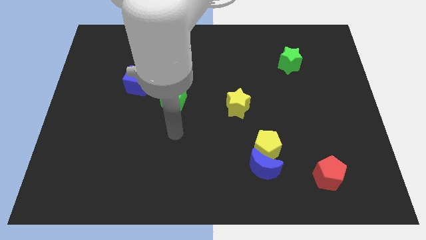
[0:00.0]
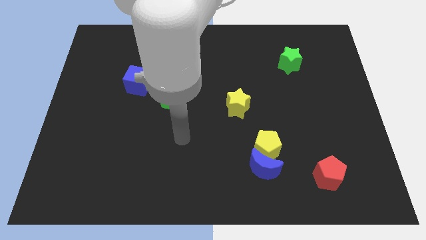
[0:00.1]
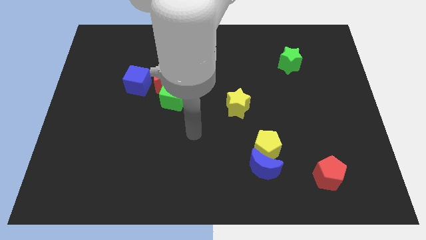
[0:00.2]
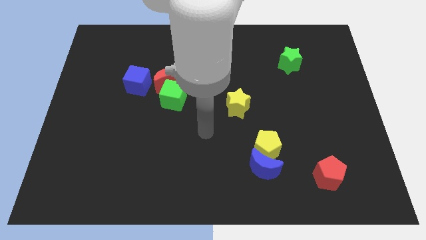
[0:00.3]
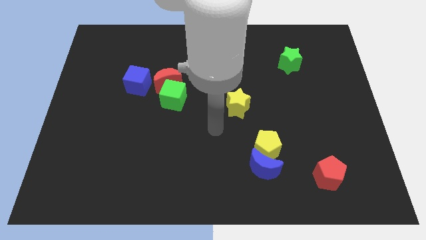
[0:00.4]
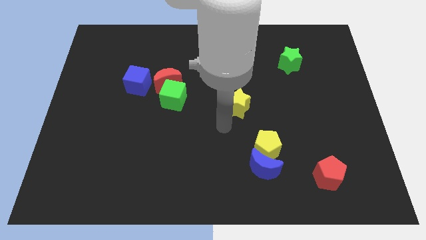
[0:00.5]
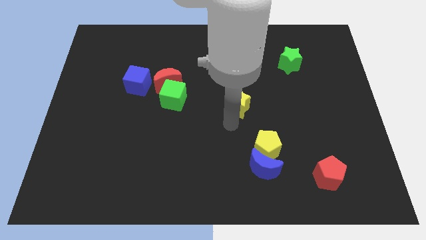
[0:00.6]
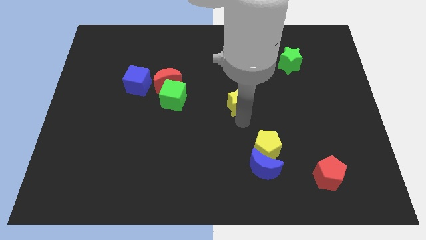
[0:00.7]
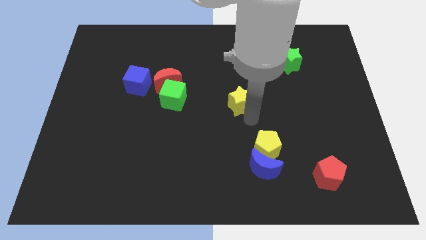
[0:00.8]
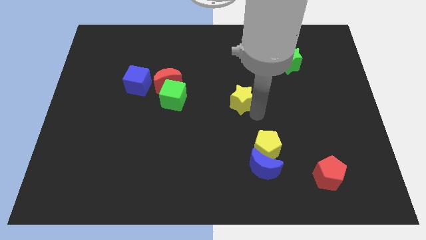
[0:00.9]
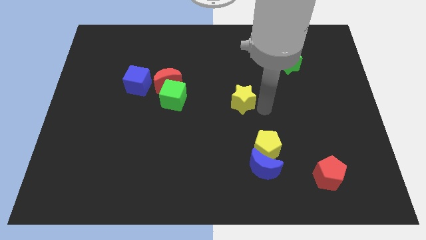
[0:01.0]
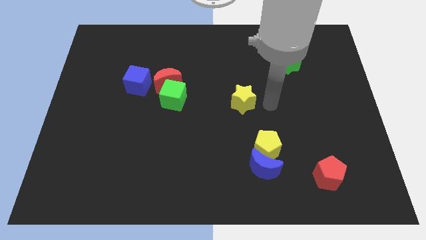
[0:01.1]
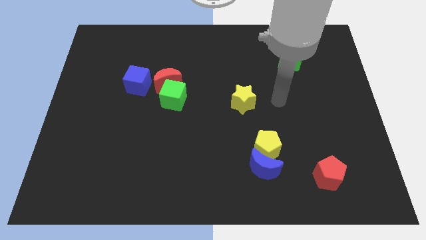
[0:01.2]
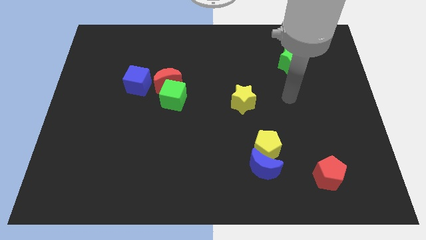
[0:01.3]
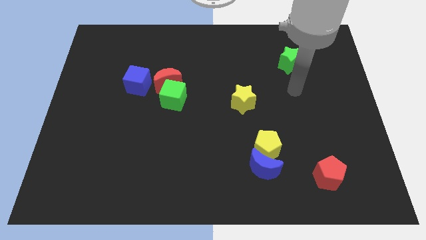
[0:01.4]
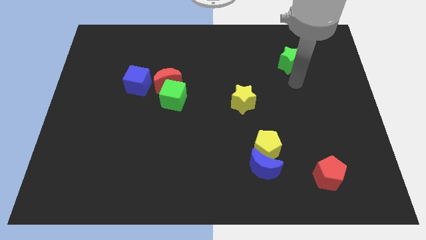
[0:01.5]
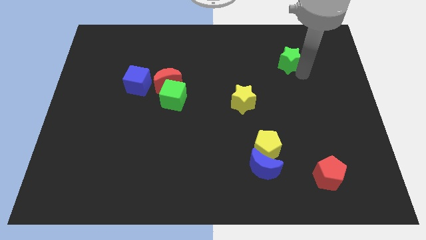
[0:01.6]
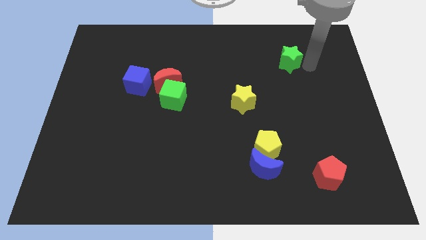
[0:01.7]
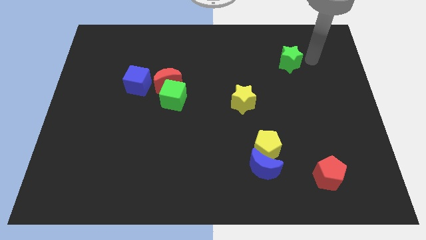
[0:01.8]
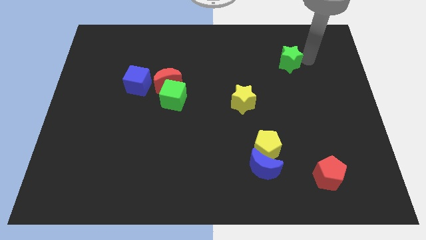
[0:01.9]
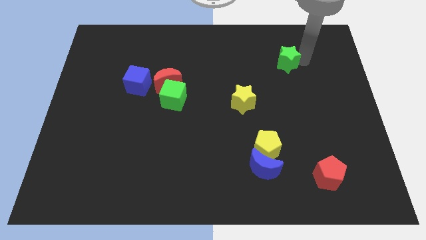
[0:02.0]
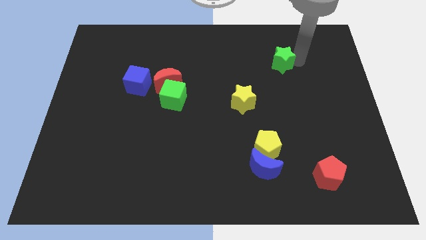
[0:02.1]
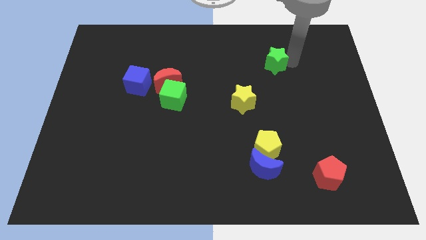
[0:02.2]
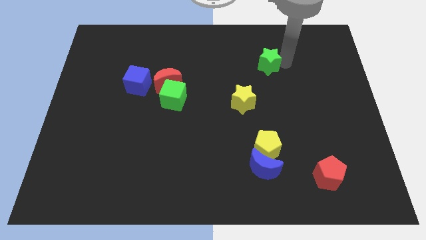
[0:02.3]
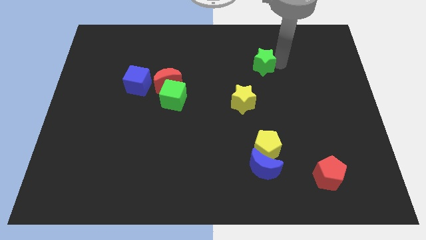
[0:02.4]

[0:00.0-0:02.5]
slide the green star a little to the left

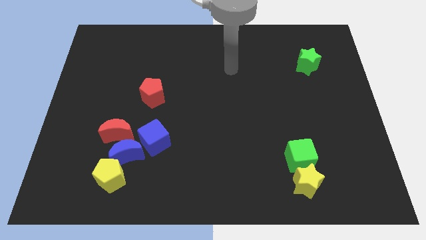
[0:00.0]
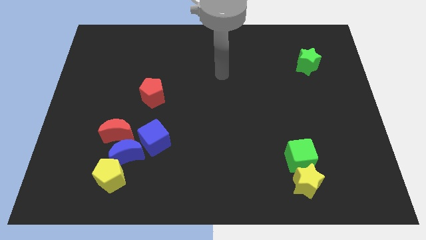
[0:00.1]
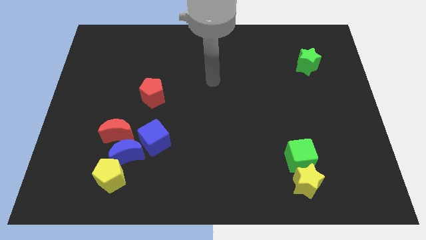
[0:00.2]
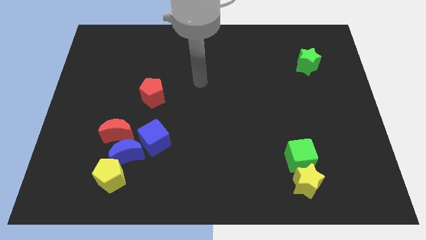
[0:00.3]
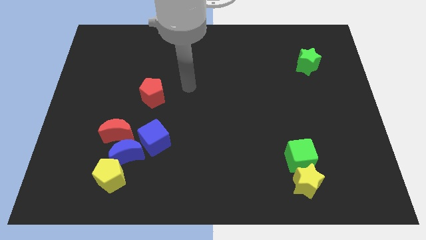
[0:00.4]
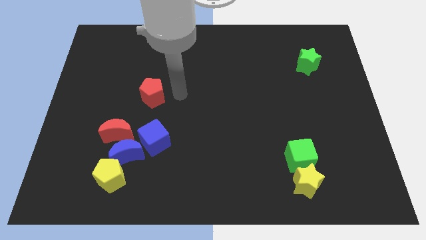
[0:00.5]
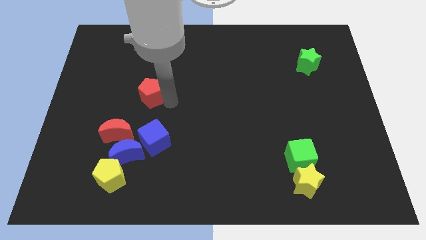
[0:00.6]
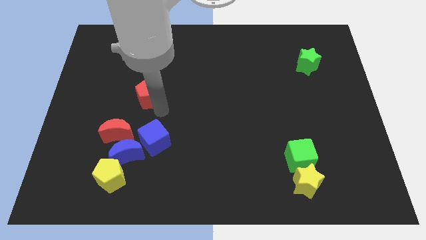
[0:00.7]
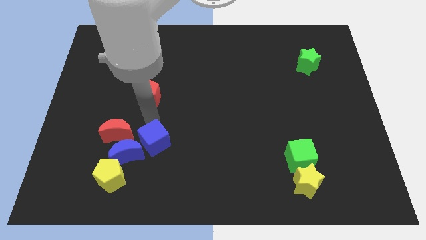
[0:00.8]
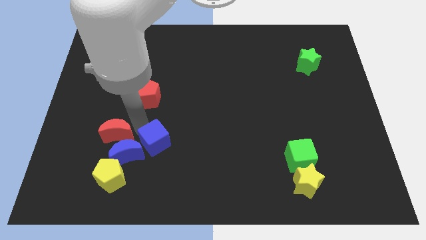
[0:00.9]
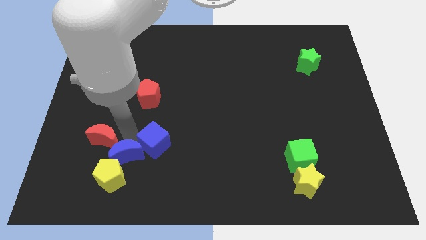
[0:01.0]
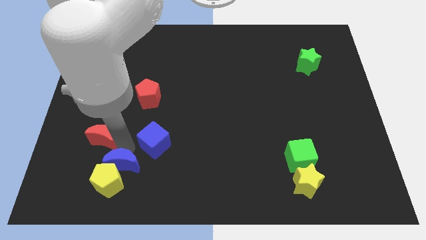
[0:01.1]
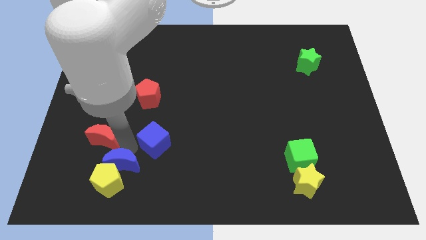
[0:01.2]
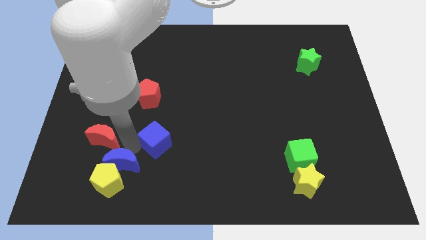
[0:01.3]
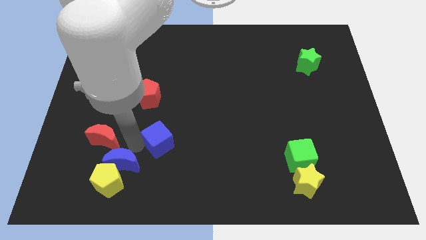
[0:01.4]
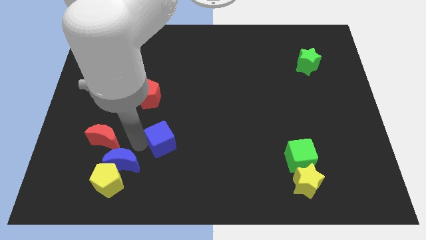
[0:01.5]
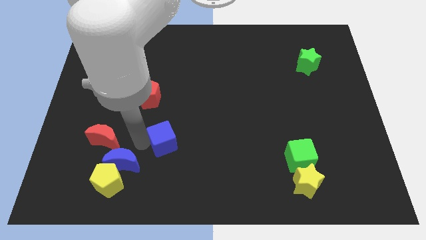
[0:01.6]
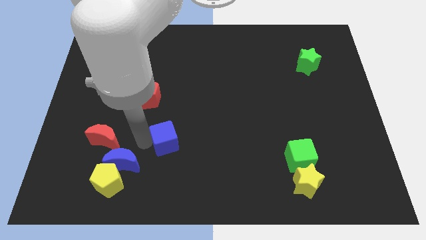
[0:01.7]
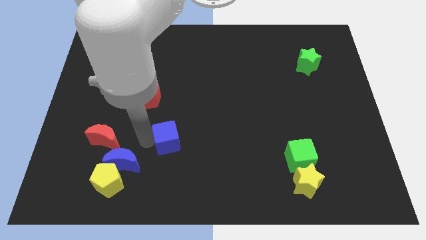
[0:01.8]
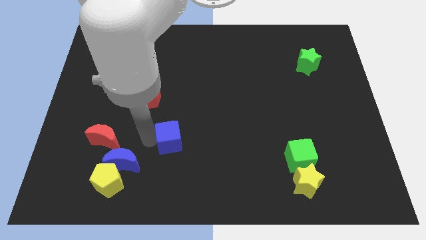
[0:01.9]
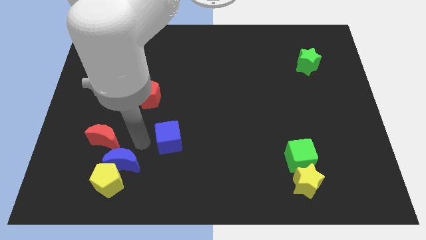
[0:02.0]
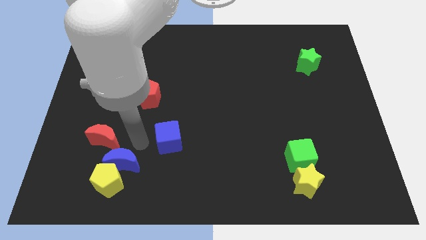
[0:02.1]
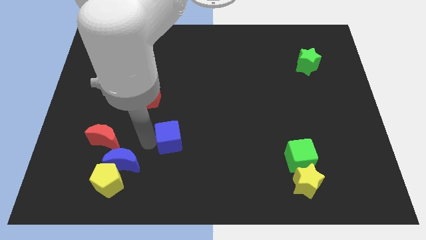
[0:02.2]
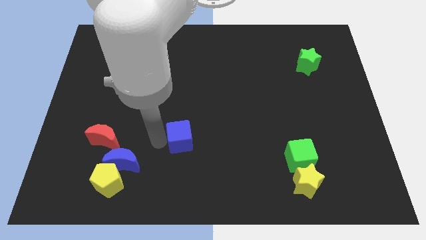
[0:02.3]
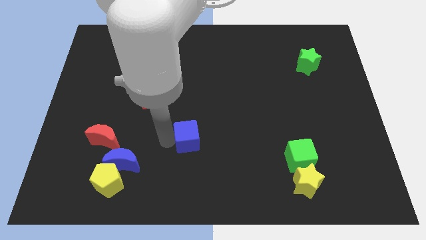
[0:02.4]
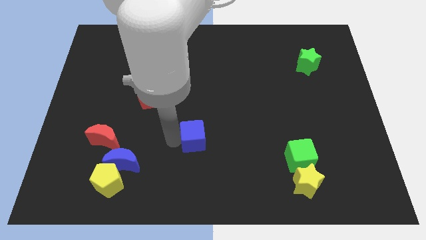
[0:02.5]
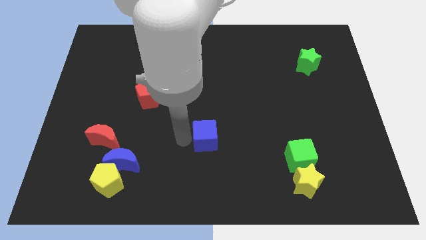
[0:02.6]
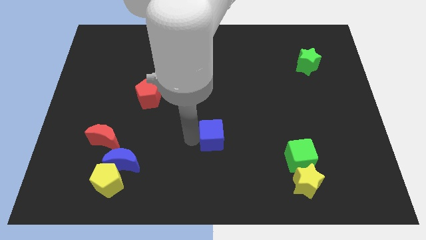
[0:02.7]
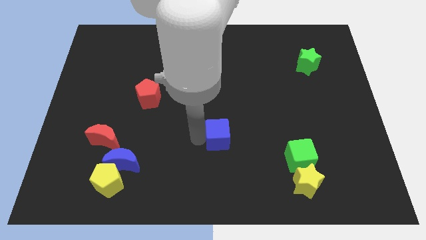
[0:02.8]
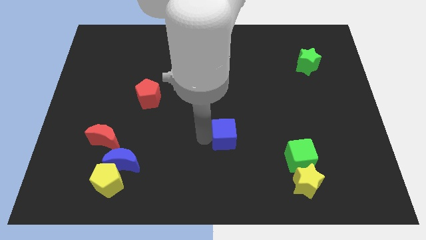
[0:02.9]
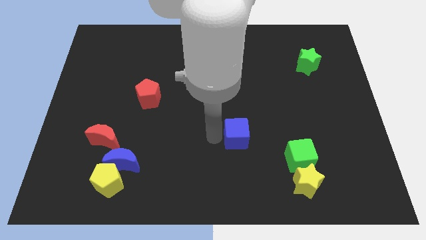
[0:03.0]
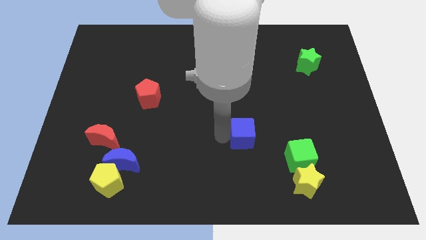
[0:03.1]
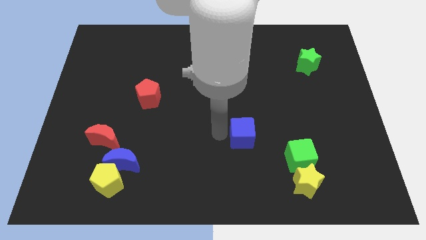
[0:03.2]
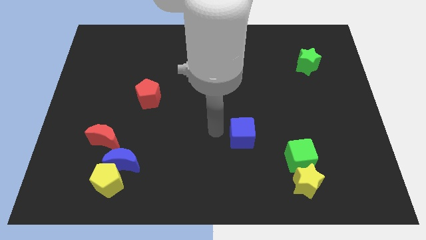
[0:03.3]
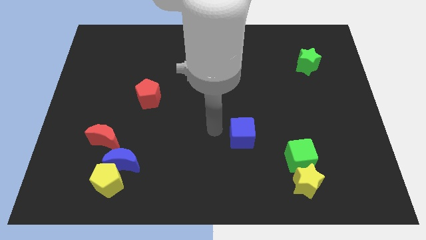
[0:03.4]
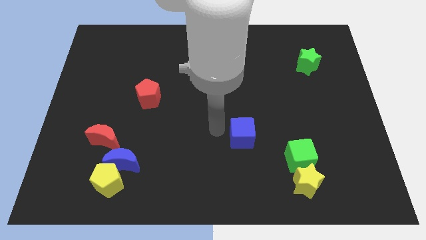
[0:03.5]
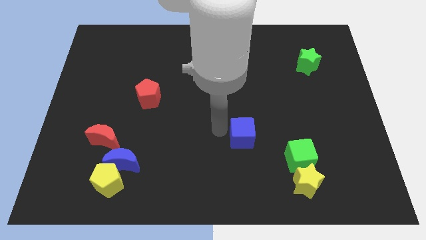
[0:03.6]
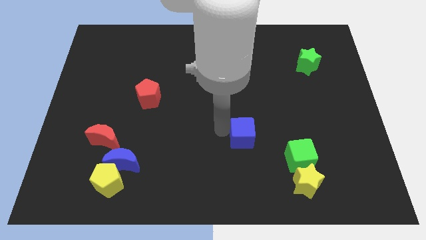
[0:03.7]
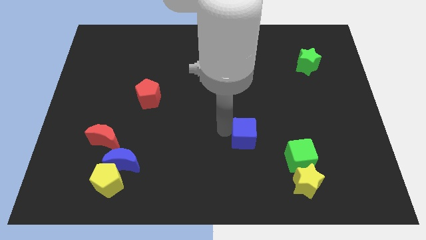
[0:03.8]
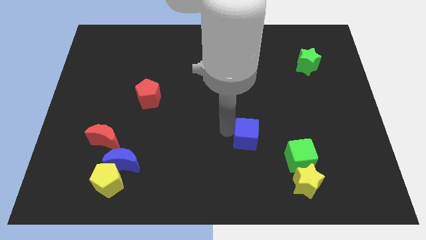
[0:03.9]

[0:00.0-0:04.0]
slide the blue cube to the right

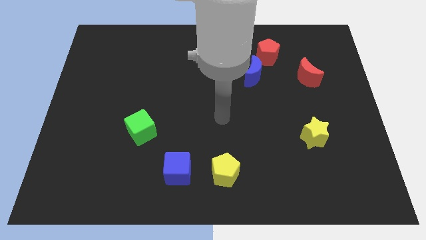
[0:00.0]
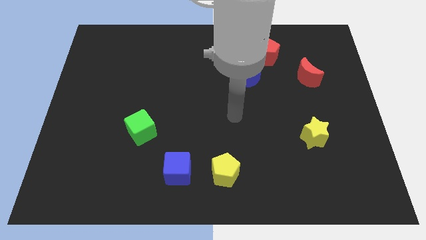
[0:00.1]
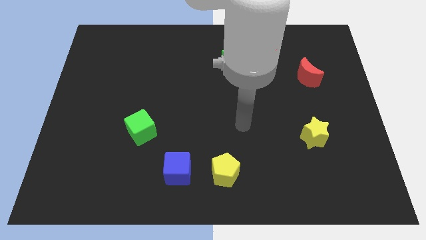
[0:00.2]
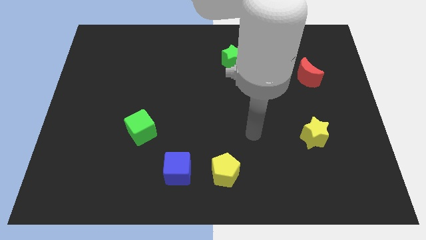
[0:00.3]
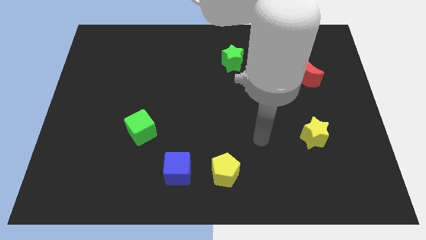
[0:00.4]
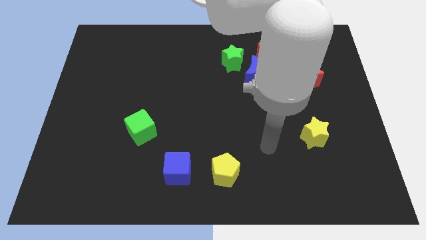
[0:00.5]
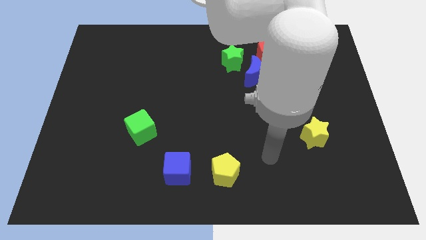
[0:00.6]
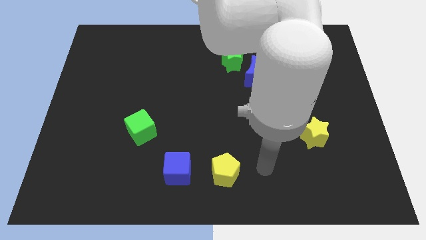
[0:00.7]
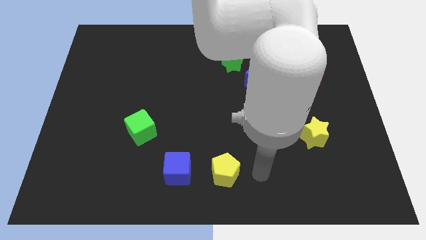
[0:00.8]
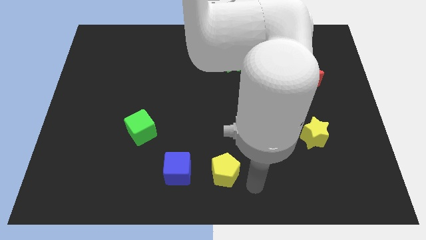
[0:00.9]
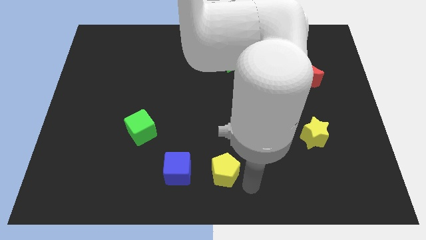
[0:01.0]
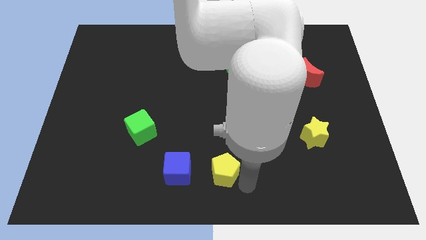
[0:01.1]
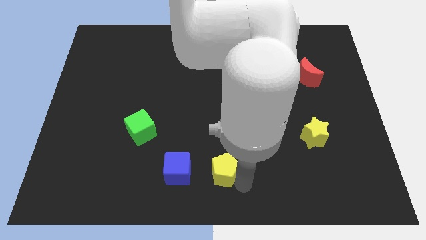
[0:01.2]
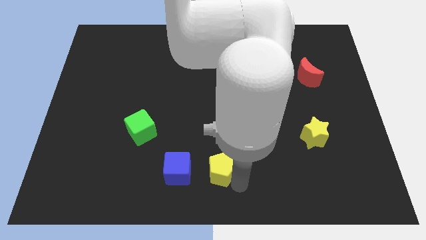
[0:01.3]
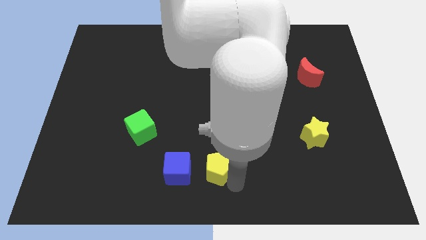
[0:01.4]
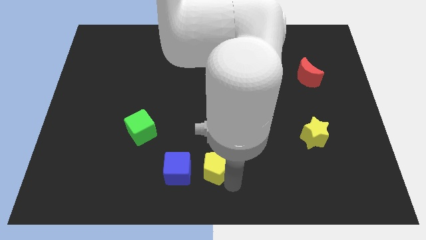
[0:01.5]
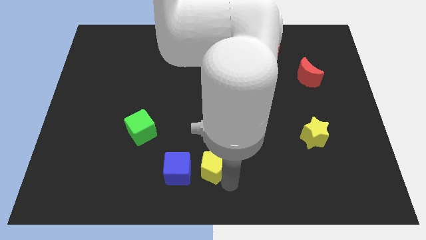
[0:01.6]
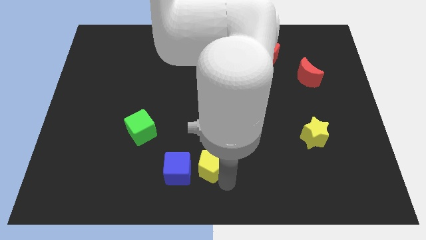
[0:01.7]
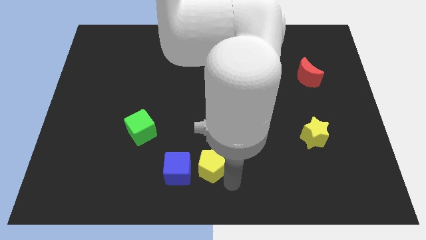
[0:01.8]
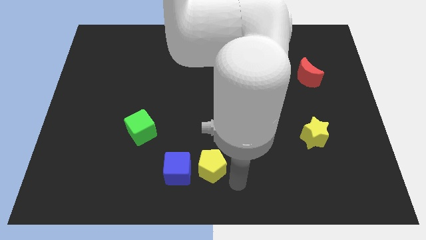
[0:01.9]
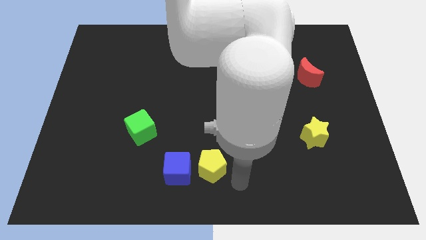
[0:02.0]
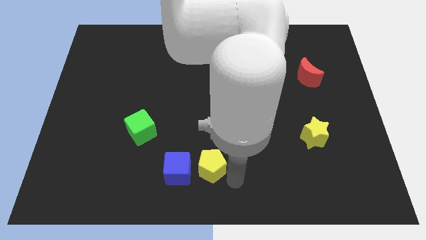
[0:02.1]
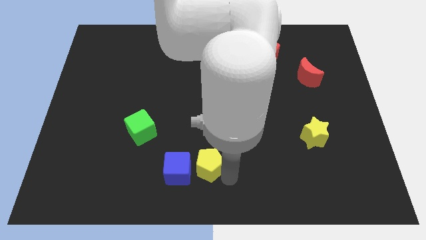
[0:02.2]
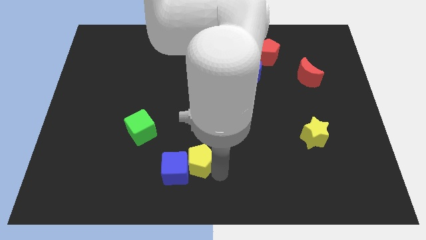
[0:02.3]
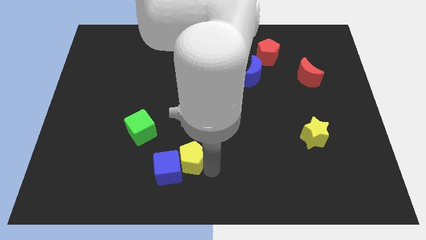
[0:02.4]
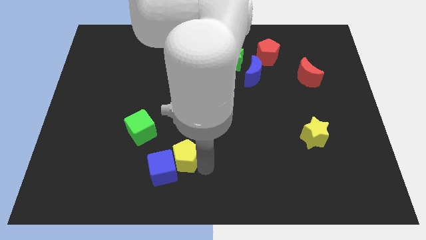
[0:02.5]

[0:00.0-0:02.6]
slide the yellow pentagon to the left somewhat
